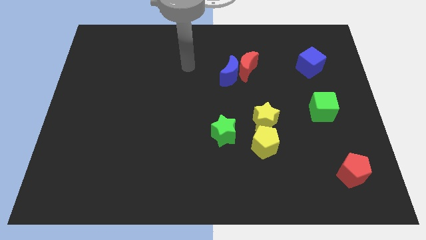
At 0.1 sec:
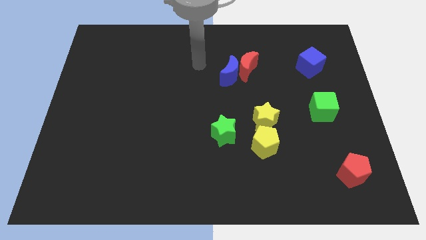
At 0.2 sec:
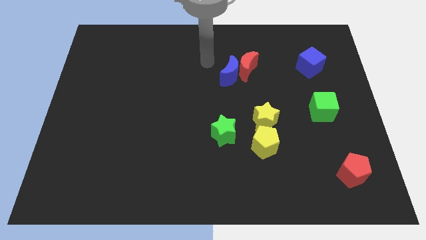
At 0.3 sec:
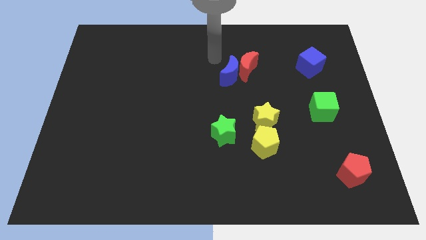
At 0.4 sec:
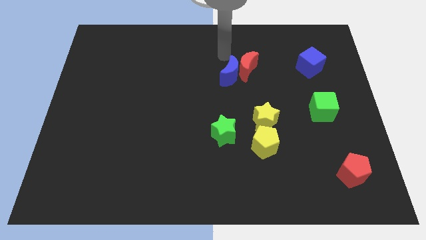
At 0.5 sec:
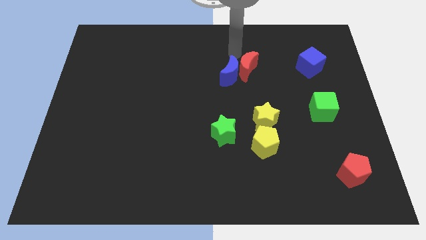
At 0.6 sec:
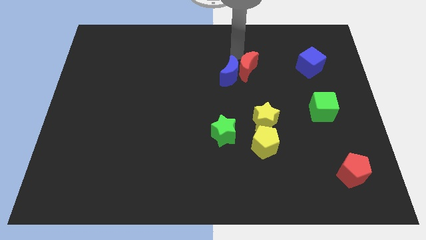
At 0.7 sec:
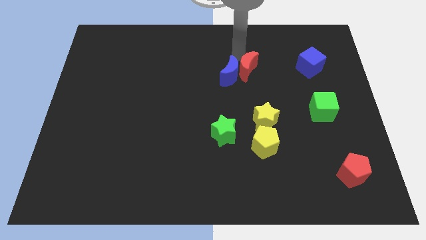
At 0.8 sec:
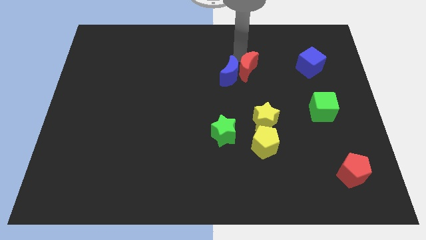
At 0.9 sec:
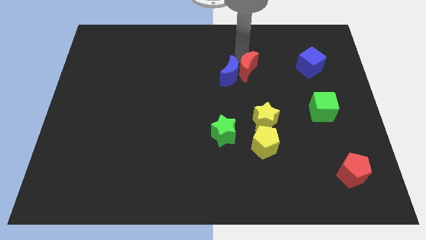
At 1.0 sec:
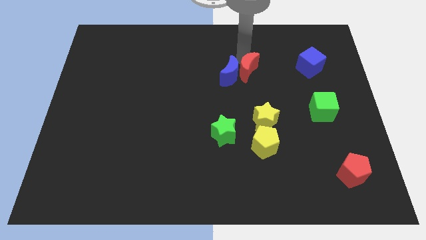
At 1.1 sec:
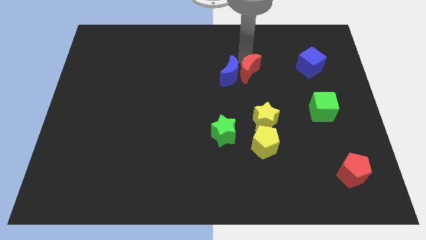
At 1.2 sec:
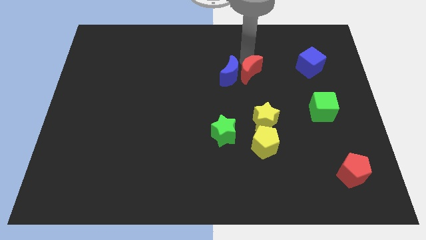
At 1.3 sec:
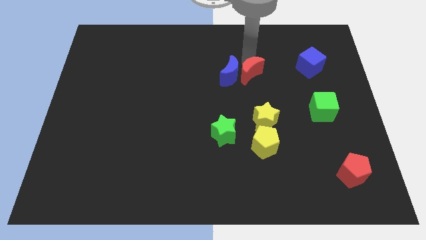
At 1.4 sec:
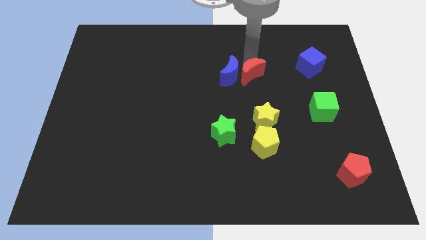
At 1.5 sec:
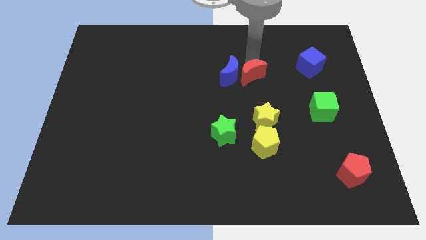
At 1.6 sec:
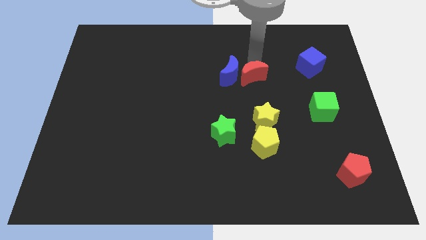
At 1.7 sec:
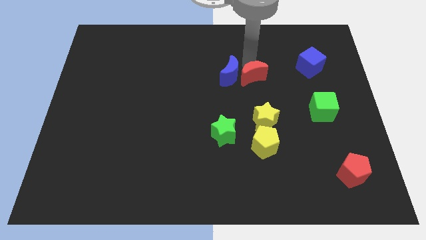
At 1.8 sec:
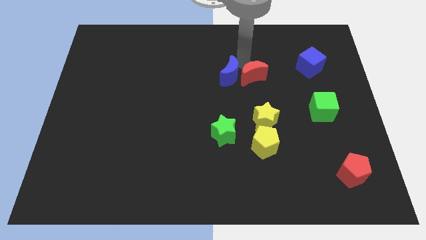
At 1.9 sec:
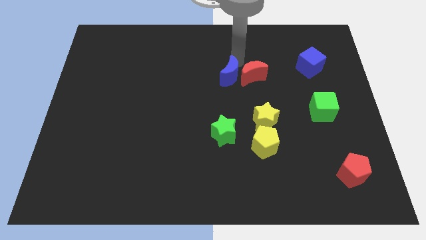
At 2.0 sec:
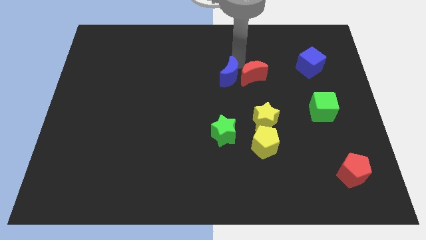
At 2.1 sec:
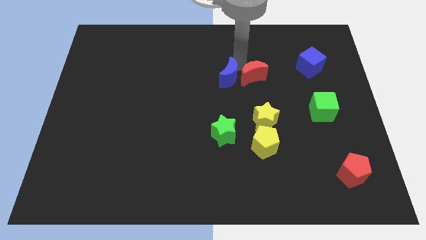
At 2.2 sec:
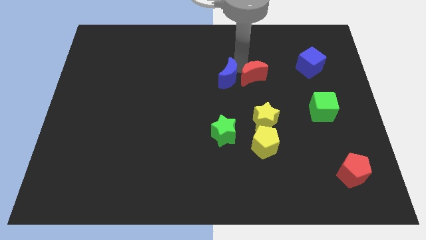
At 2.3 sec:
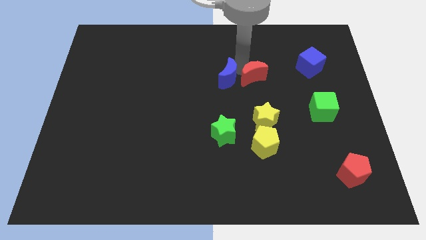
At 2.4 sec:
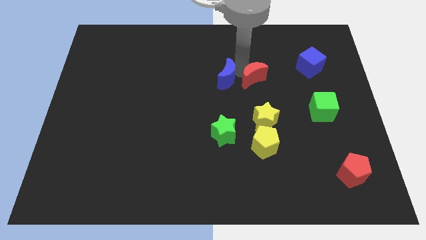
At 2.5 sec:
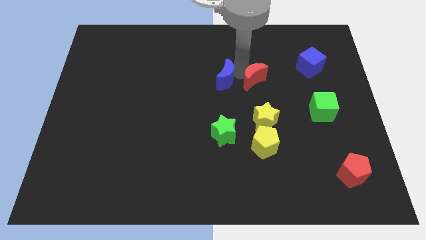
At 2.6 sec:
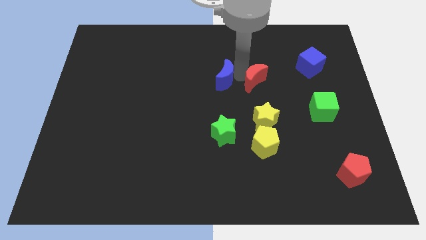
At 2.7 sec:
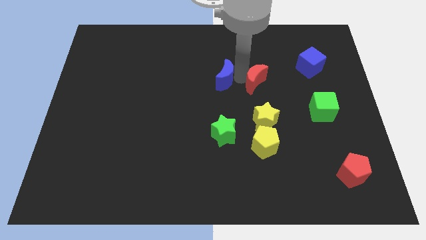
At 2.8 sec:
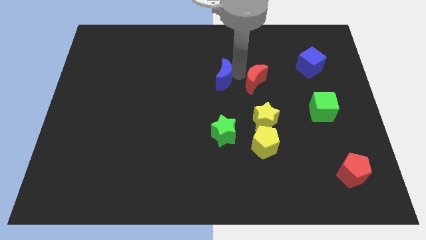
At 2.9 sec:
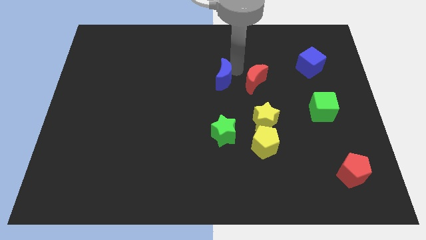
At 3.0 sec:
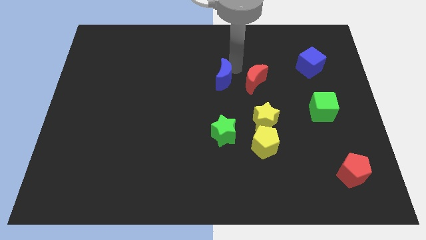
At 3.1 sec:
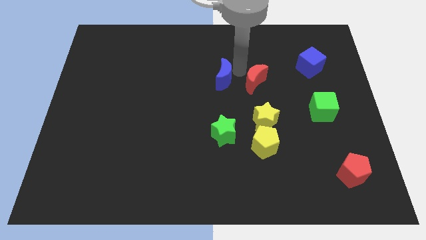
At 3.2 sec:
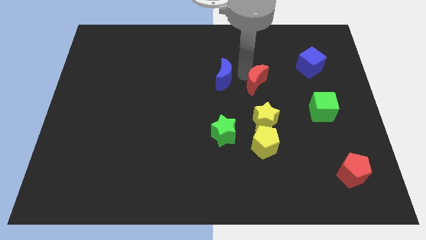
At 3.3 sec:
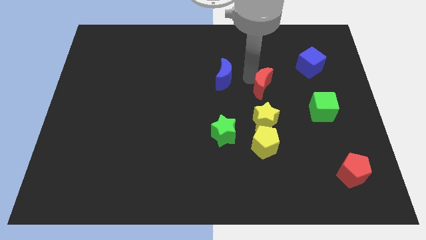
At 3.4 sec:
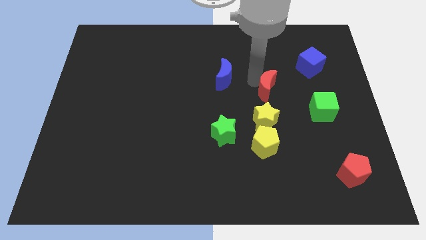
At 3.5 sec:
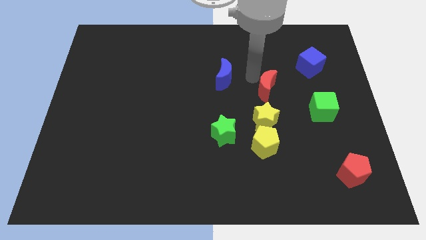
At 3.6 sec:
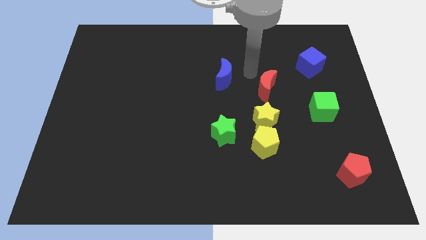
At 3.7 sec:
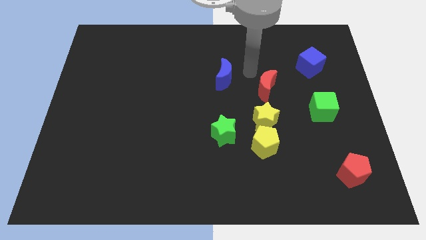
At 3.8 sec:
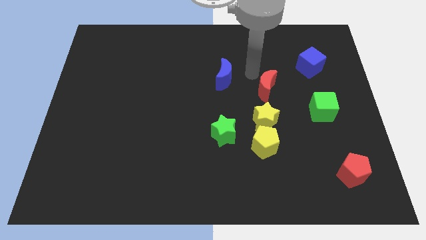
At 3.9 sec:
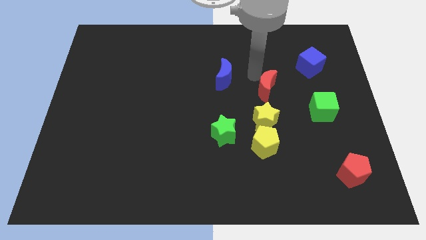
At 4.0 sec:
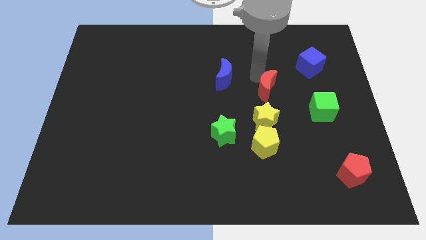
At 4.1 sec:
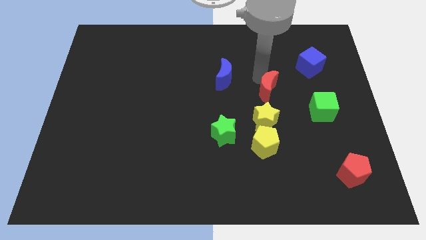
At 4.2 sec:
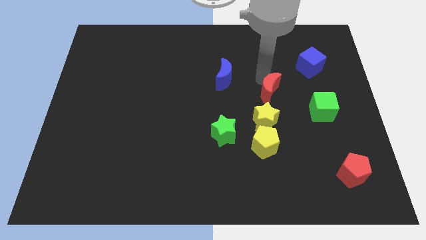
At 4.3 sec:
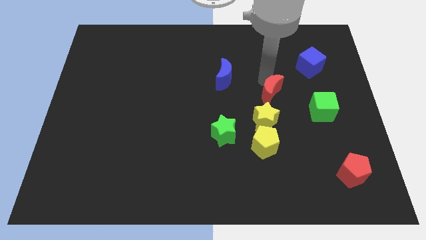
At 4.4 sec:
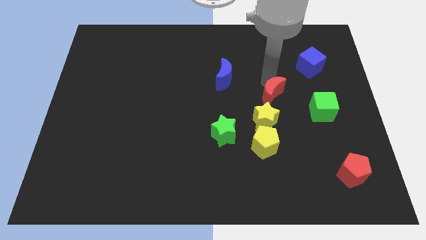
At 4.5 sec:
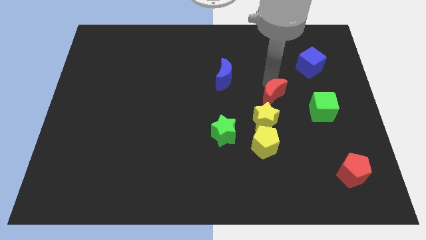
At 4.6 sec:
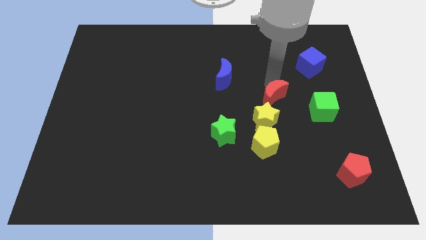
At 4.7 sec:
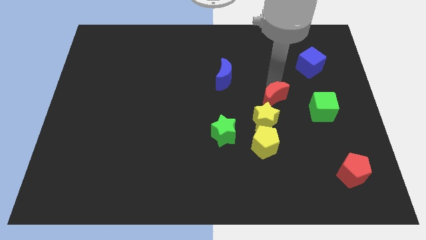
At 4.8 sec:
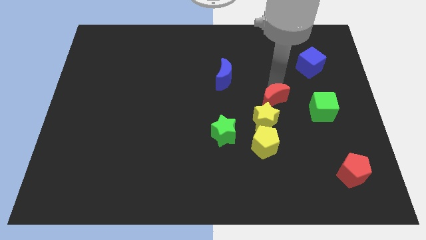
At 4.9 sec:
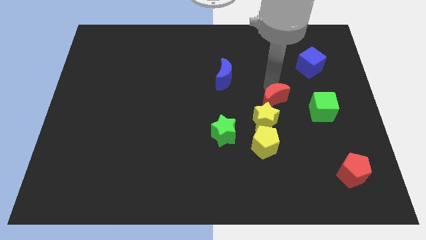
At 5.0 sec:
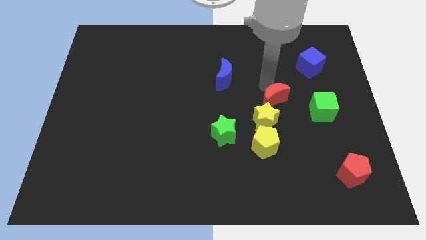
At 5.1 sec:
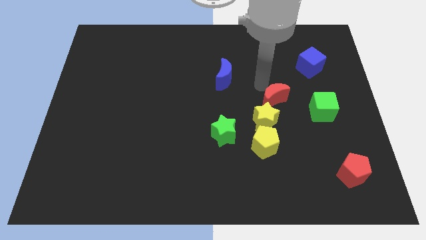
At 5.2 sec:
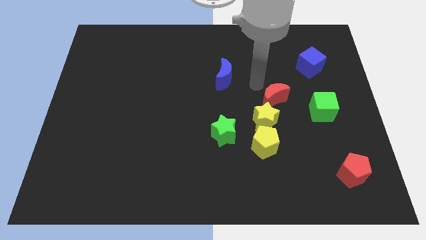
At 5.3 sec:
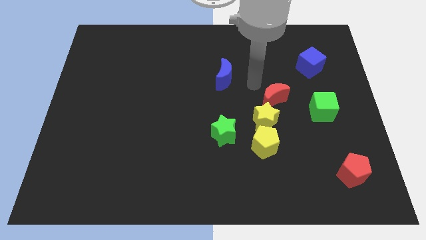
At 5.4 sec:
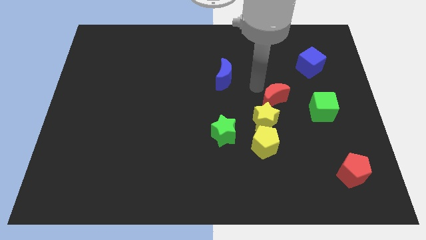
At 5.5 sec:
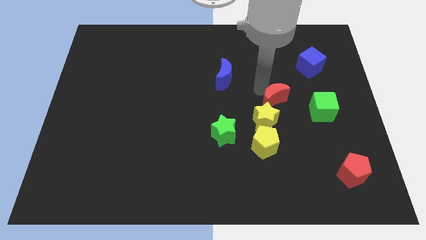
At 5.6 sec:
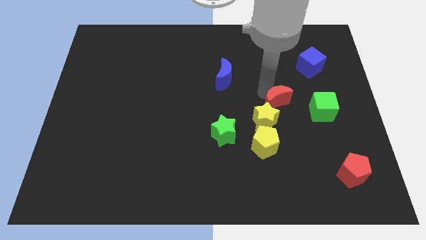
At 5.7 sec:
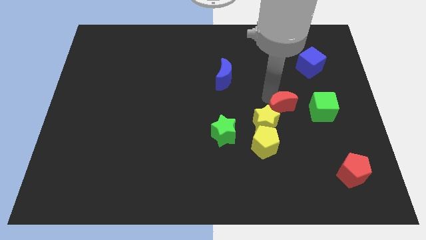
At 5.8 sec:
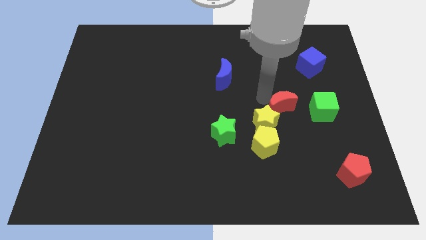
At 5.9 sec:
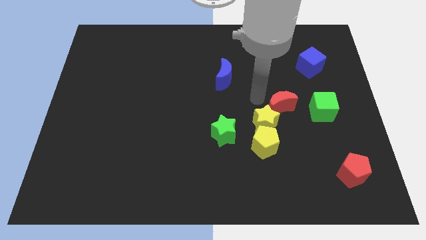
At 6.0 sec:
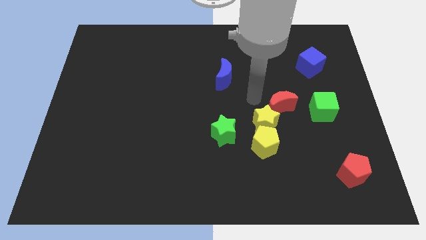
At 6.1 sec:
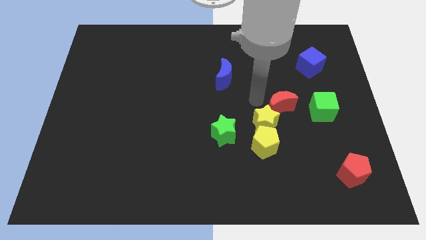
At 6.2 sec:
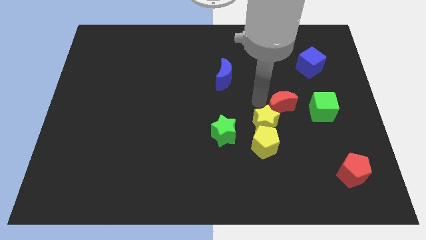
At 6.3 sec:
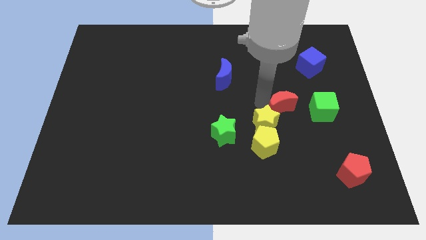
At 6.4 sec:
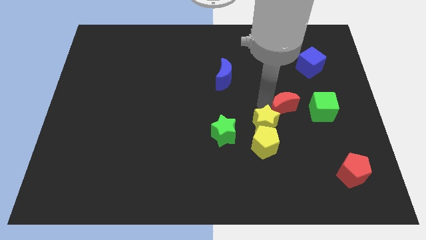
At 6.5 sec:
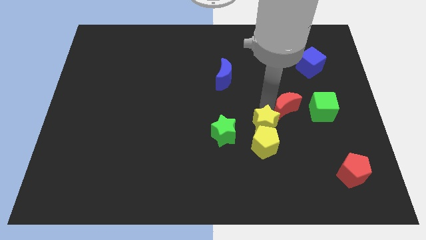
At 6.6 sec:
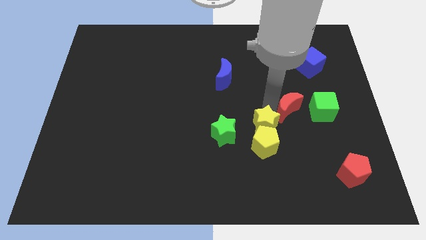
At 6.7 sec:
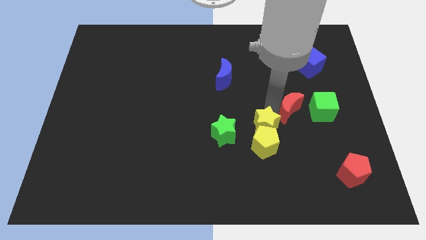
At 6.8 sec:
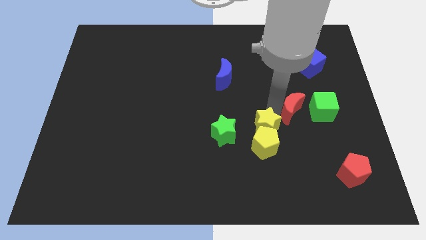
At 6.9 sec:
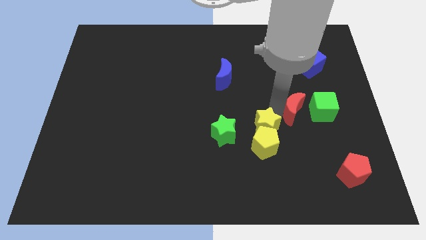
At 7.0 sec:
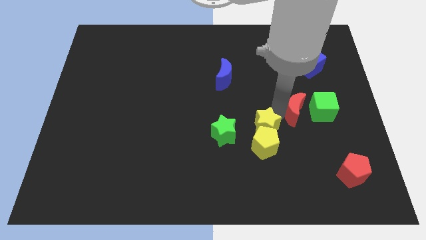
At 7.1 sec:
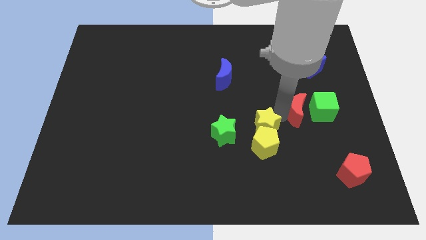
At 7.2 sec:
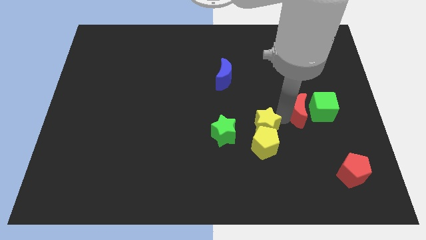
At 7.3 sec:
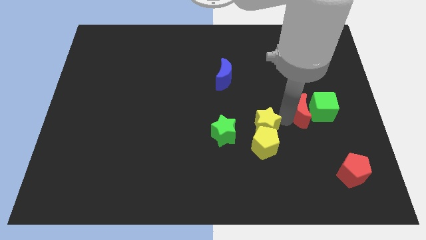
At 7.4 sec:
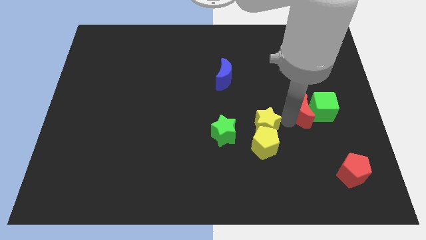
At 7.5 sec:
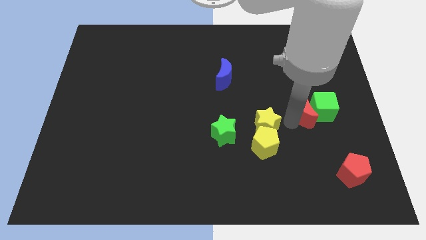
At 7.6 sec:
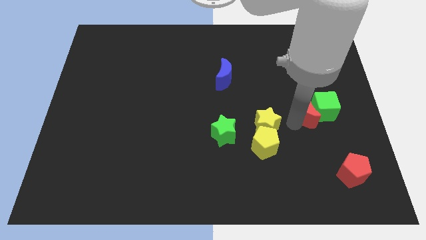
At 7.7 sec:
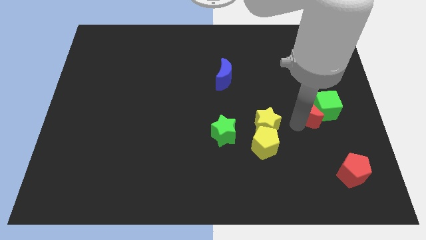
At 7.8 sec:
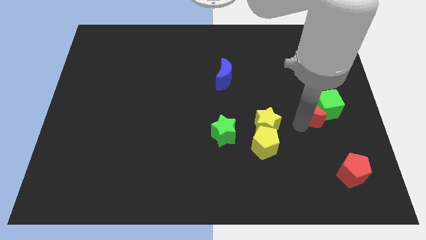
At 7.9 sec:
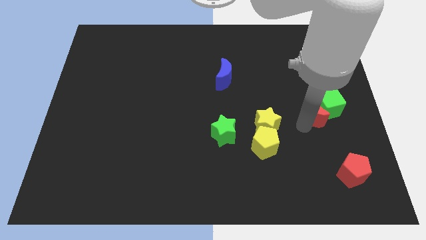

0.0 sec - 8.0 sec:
move the red moon to the bottom of the blue cube
